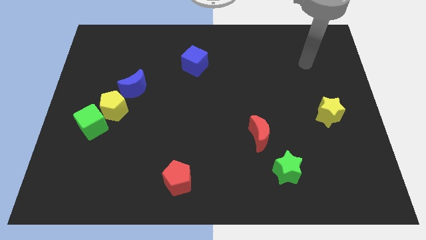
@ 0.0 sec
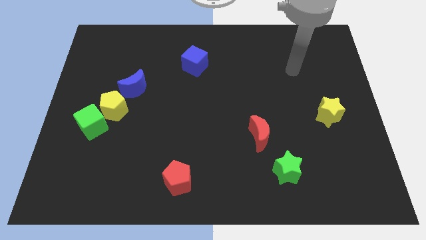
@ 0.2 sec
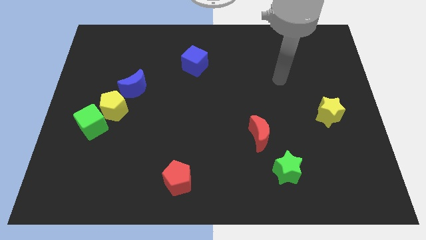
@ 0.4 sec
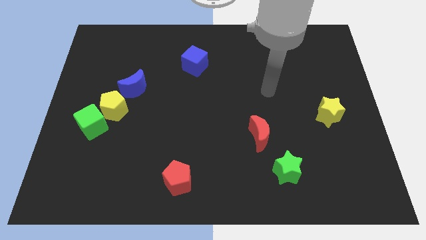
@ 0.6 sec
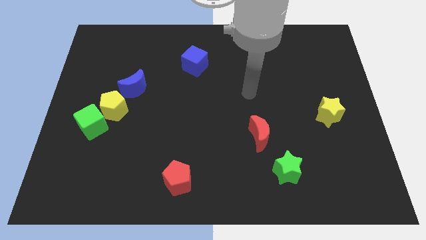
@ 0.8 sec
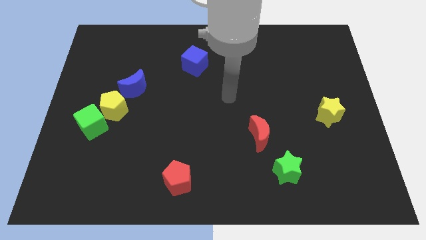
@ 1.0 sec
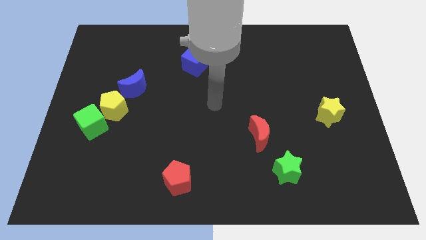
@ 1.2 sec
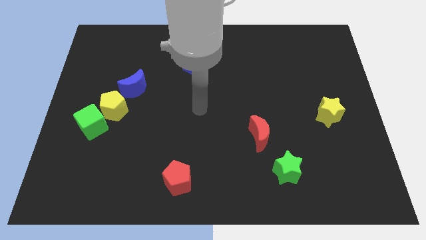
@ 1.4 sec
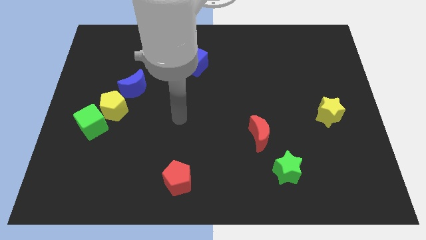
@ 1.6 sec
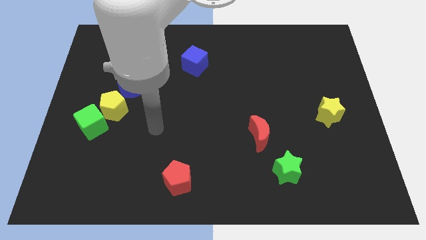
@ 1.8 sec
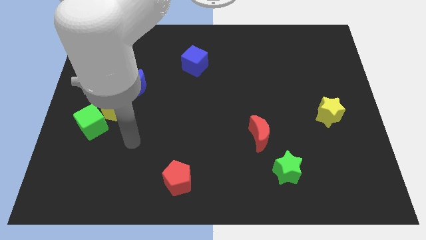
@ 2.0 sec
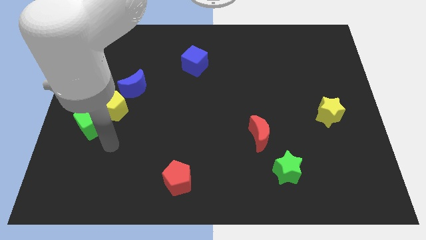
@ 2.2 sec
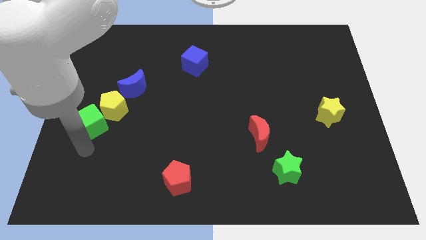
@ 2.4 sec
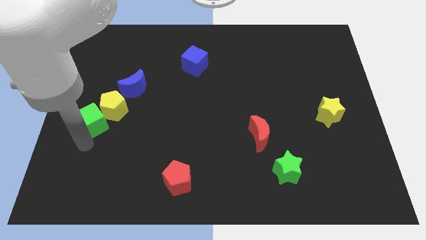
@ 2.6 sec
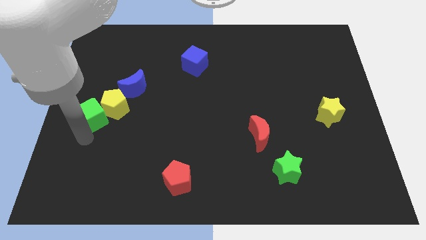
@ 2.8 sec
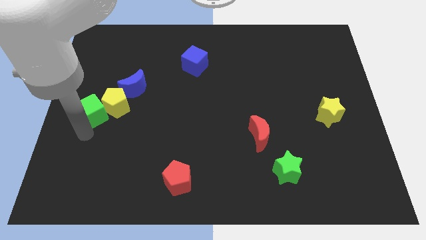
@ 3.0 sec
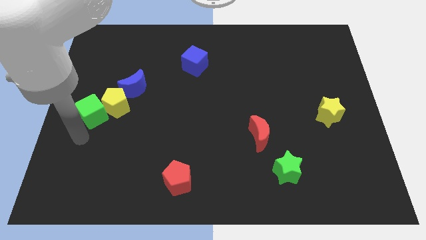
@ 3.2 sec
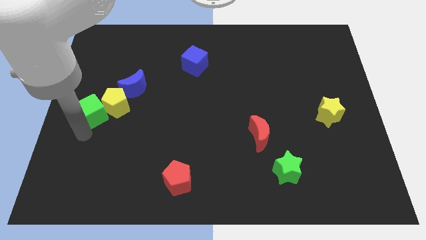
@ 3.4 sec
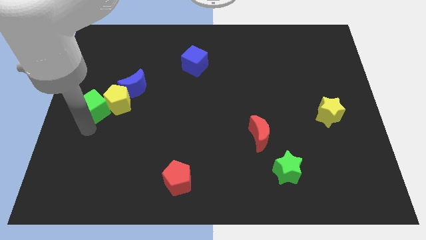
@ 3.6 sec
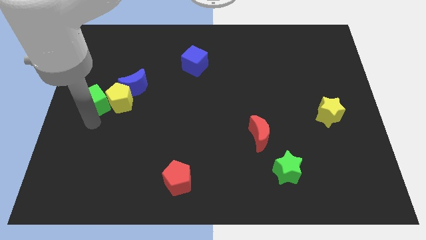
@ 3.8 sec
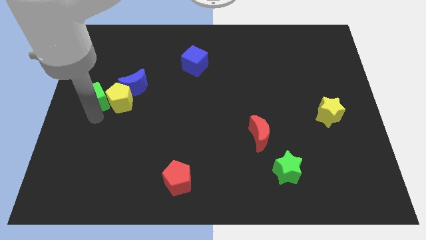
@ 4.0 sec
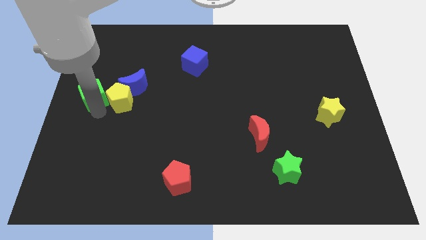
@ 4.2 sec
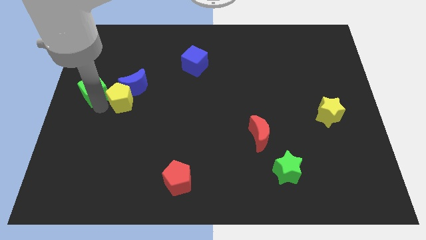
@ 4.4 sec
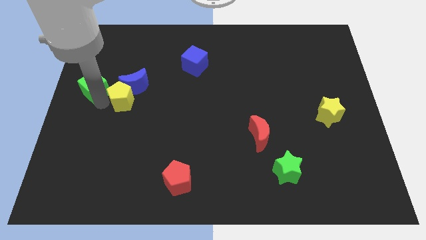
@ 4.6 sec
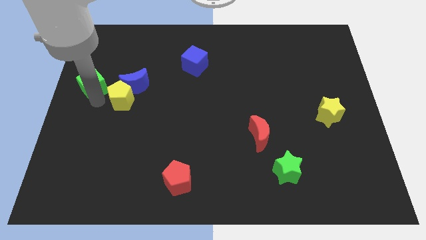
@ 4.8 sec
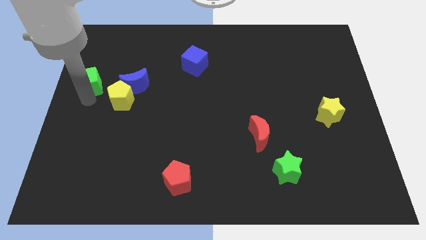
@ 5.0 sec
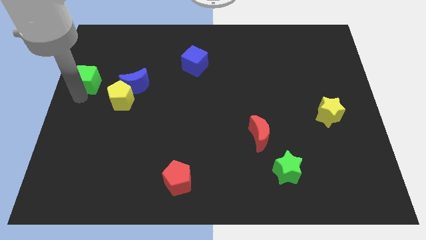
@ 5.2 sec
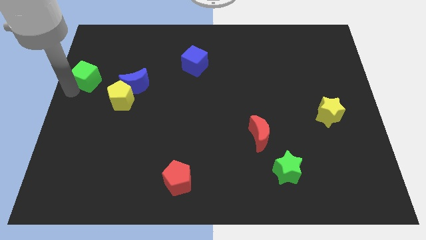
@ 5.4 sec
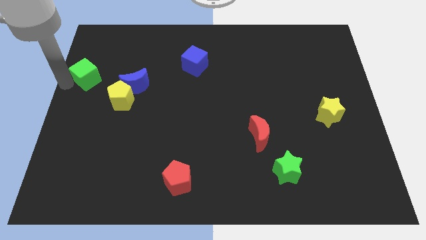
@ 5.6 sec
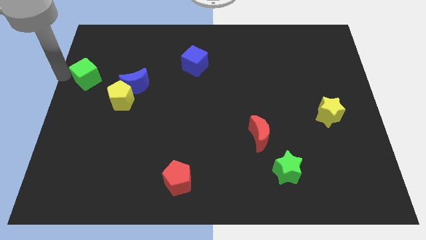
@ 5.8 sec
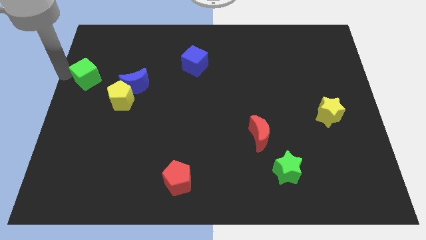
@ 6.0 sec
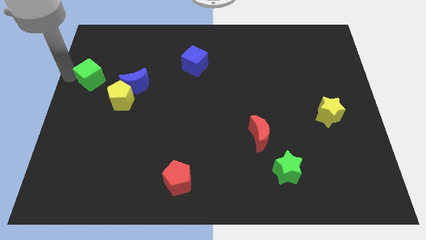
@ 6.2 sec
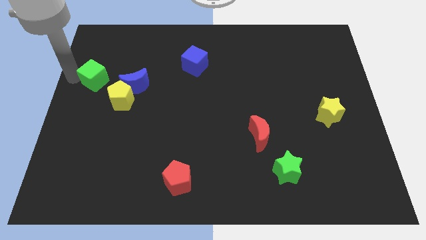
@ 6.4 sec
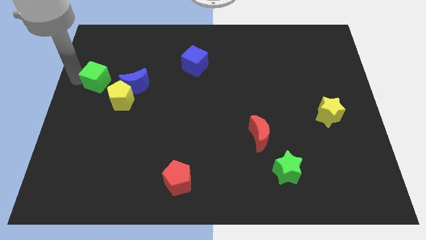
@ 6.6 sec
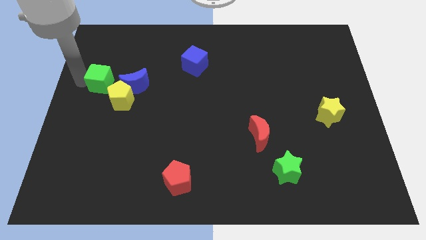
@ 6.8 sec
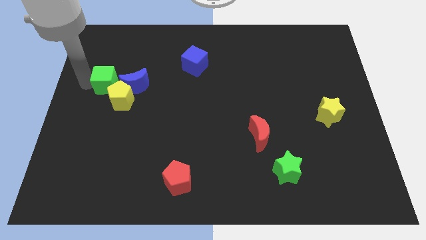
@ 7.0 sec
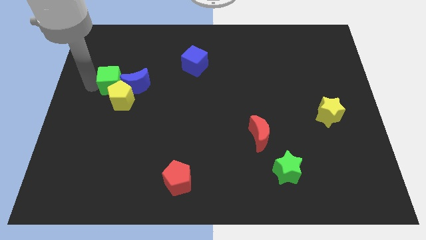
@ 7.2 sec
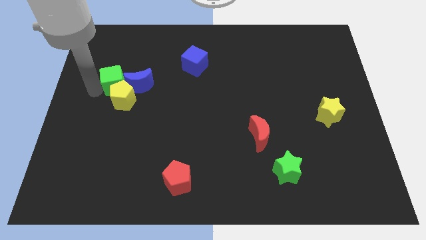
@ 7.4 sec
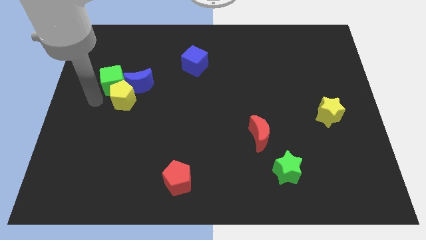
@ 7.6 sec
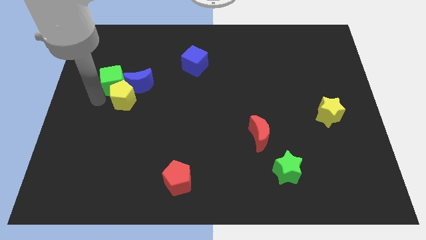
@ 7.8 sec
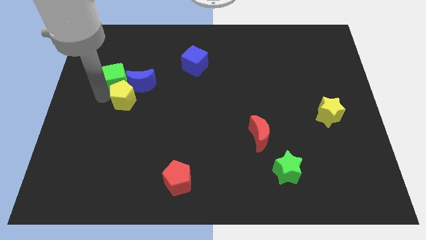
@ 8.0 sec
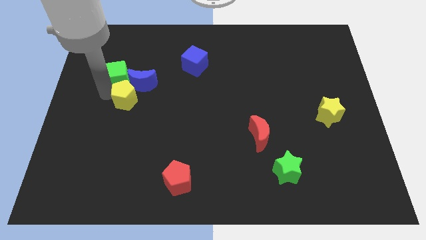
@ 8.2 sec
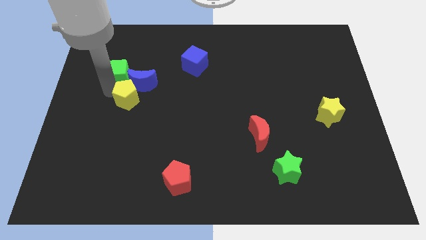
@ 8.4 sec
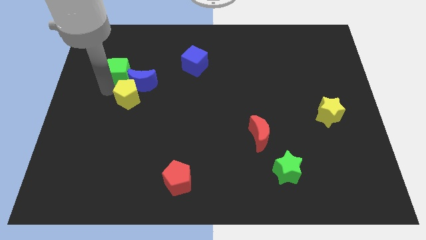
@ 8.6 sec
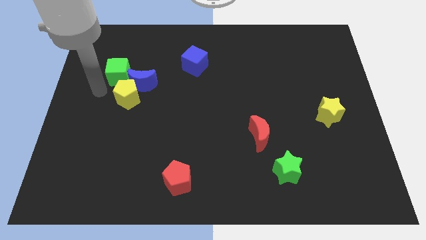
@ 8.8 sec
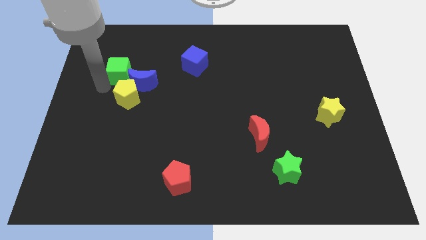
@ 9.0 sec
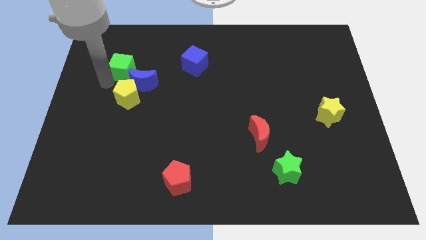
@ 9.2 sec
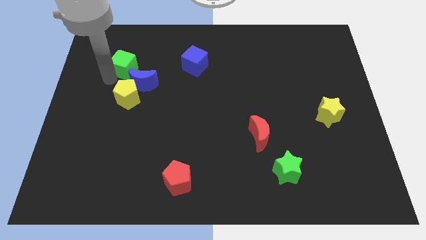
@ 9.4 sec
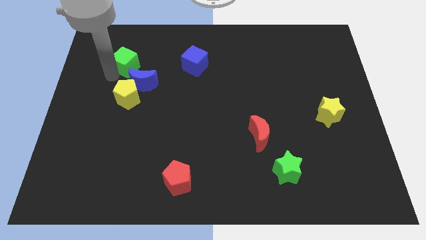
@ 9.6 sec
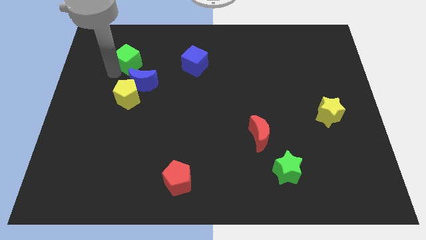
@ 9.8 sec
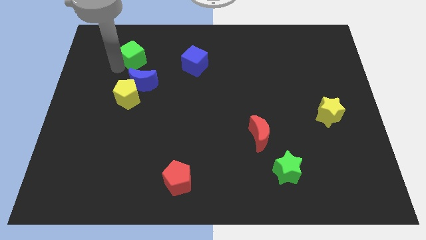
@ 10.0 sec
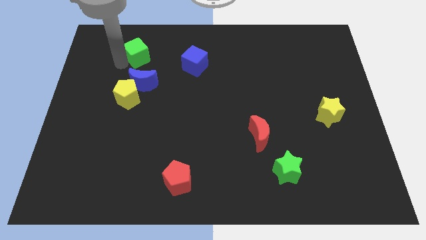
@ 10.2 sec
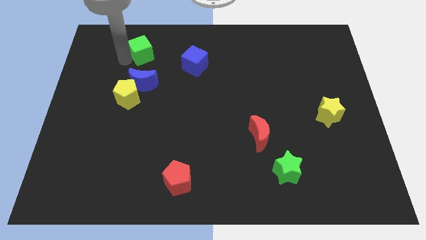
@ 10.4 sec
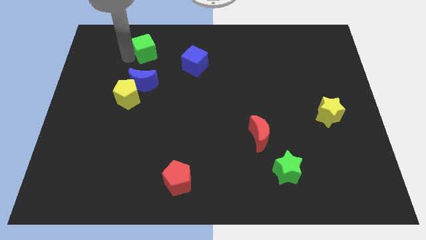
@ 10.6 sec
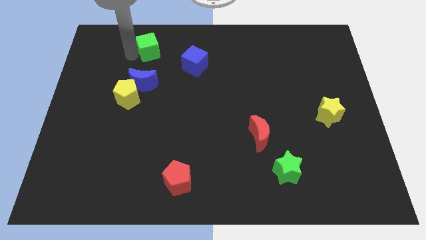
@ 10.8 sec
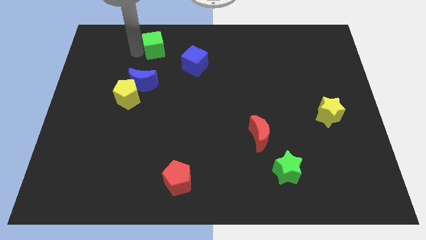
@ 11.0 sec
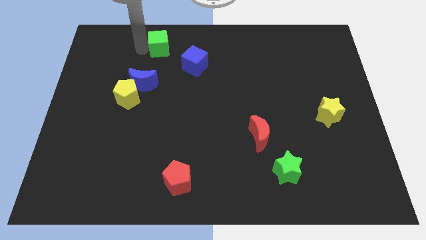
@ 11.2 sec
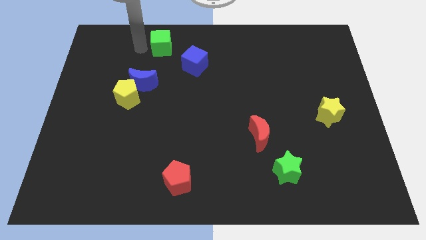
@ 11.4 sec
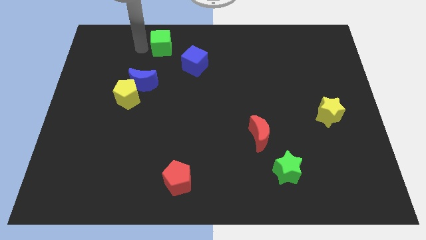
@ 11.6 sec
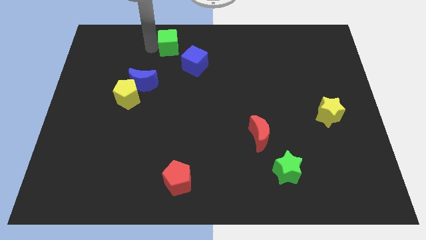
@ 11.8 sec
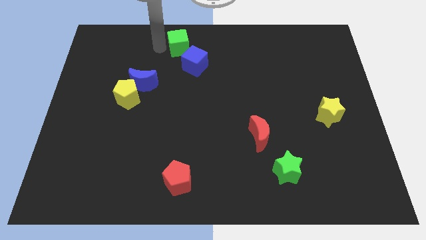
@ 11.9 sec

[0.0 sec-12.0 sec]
put the green cube to the top side
